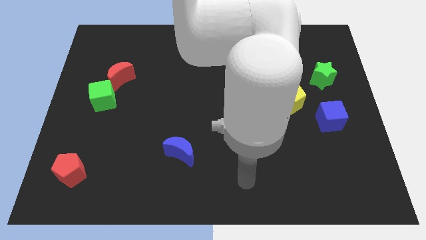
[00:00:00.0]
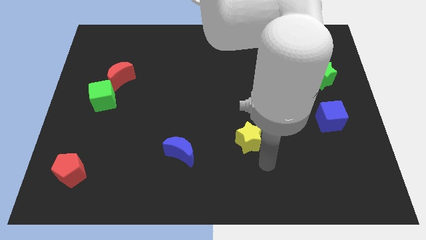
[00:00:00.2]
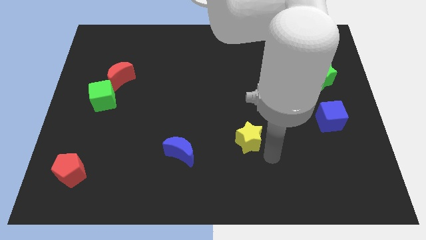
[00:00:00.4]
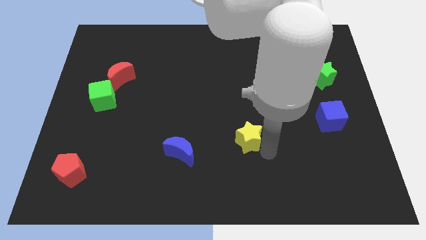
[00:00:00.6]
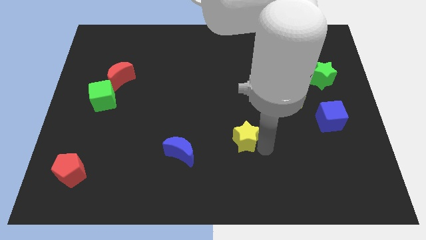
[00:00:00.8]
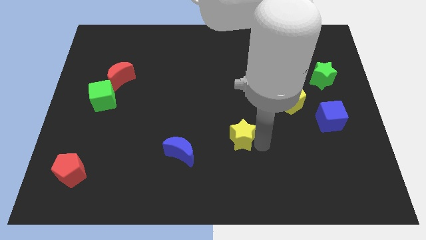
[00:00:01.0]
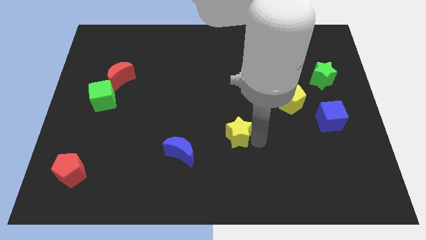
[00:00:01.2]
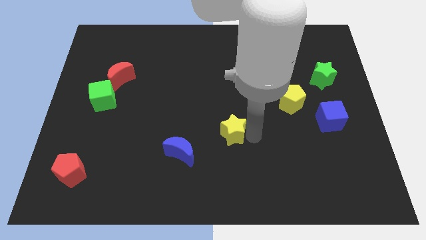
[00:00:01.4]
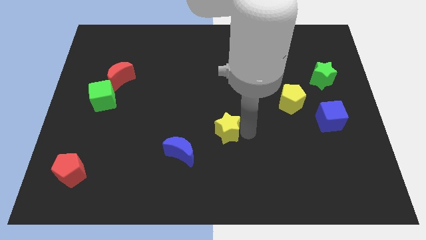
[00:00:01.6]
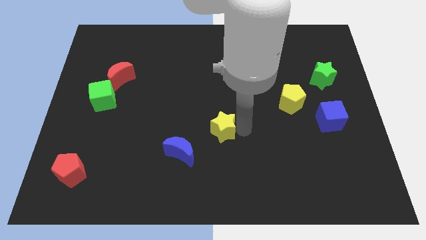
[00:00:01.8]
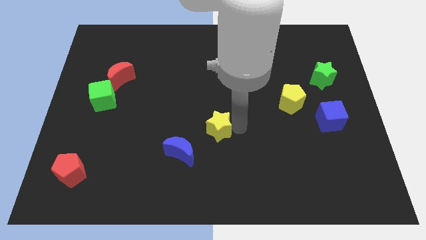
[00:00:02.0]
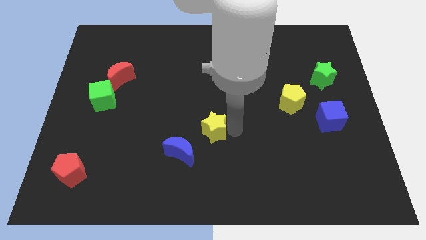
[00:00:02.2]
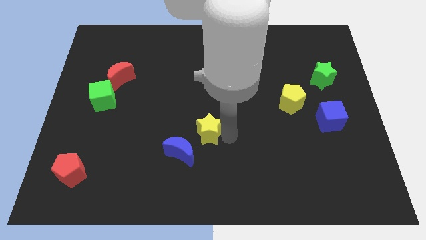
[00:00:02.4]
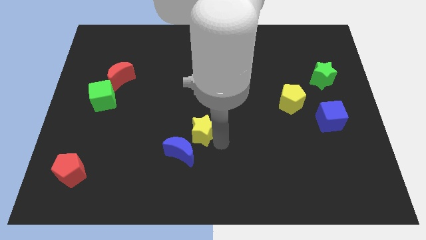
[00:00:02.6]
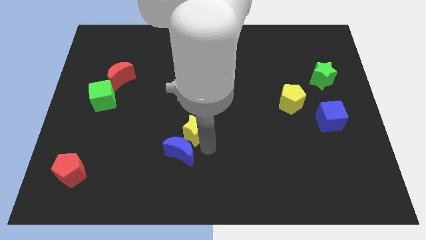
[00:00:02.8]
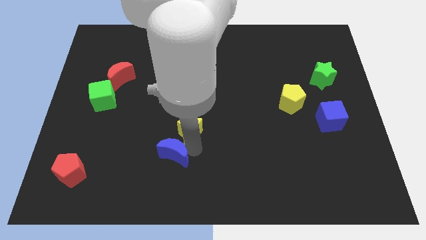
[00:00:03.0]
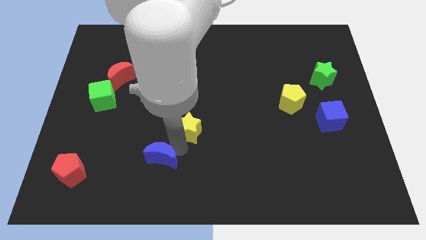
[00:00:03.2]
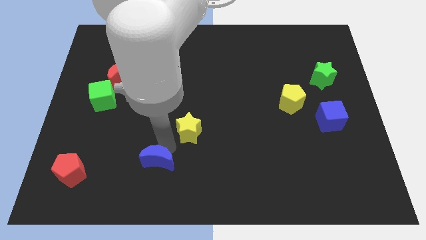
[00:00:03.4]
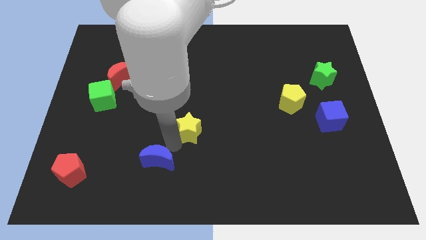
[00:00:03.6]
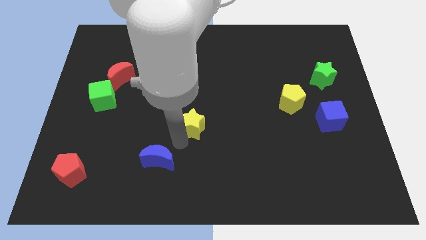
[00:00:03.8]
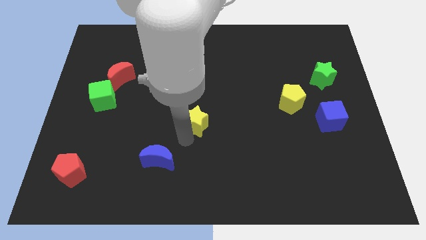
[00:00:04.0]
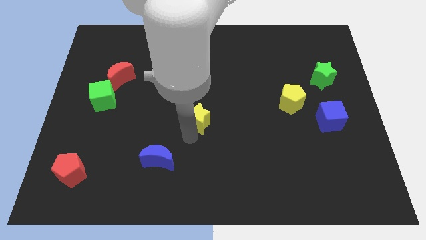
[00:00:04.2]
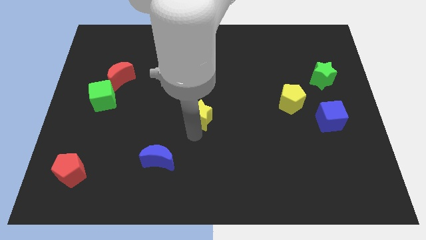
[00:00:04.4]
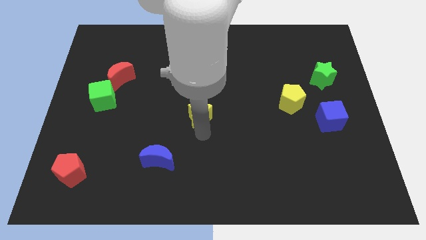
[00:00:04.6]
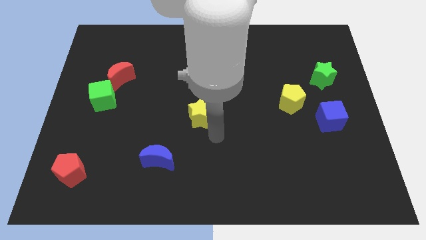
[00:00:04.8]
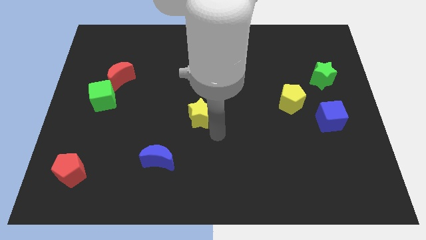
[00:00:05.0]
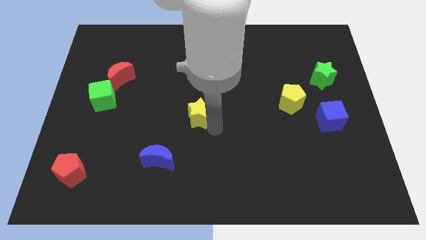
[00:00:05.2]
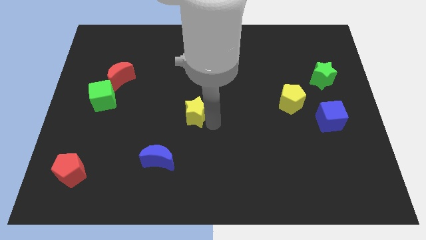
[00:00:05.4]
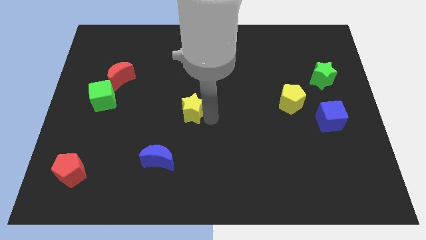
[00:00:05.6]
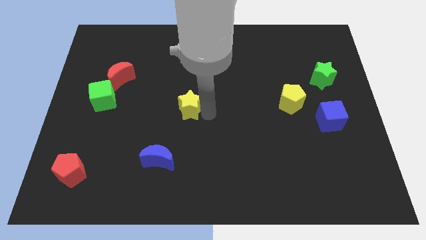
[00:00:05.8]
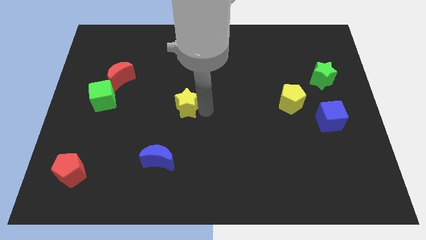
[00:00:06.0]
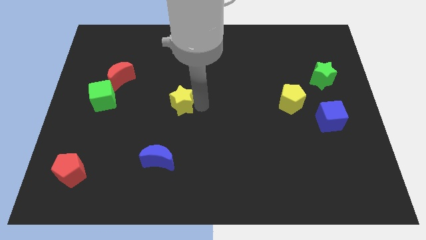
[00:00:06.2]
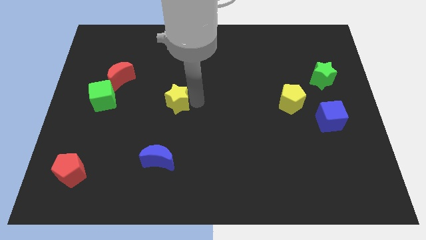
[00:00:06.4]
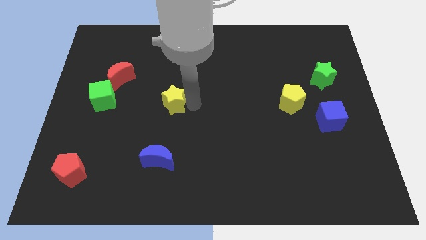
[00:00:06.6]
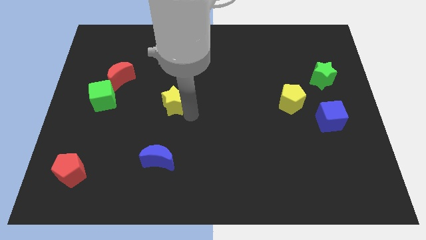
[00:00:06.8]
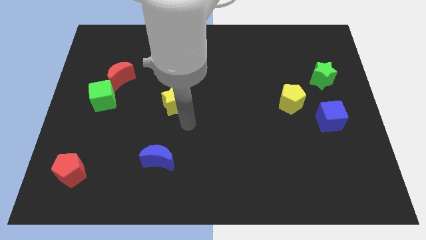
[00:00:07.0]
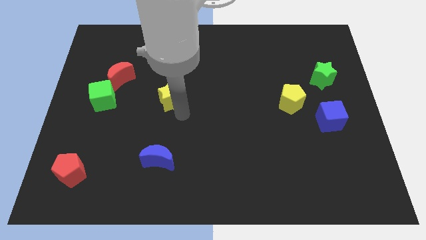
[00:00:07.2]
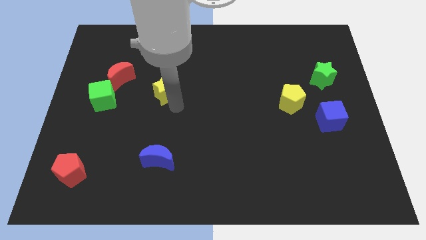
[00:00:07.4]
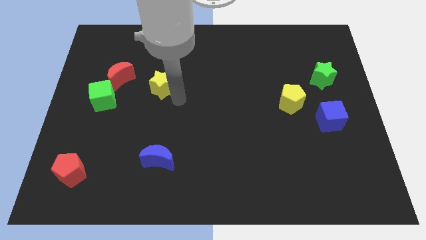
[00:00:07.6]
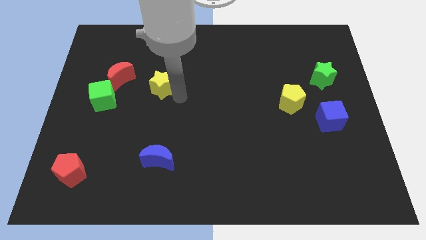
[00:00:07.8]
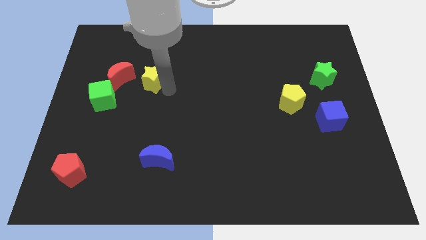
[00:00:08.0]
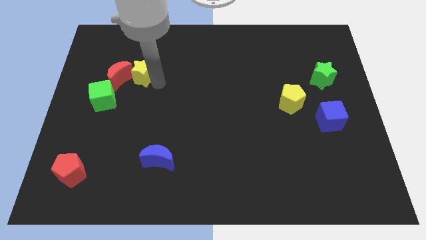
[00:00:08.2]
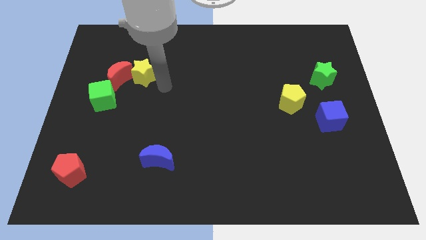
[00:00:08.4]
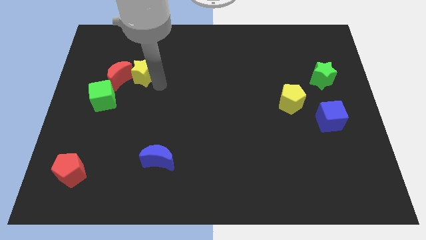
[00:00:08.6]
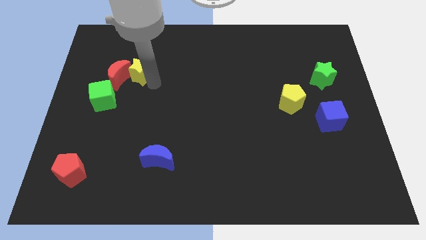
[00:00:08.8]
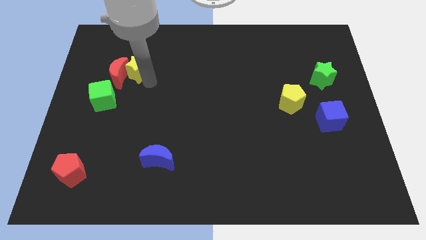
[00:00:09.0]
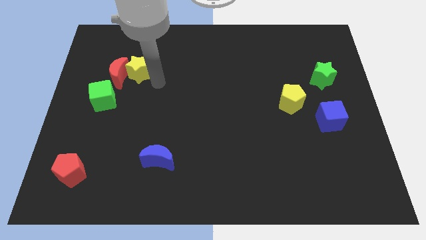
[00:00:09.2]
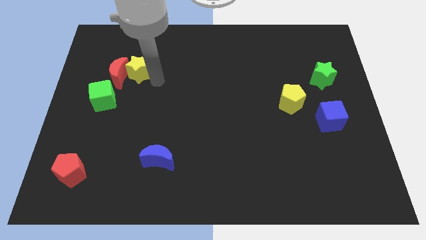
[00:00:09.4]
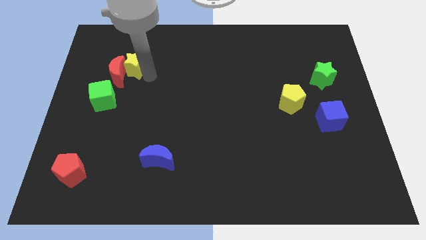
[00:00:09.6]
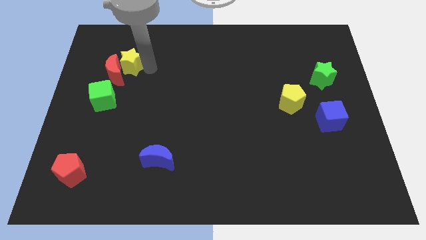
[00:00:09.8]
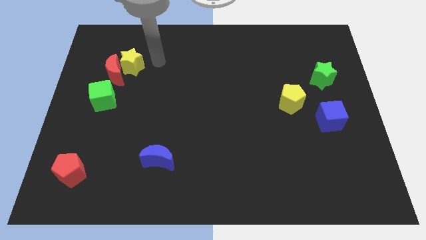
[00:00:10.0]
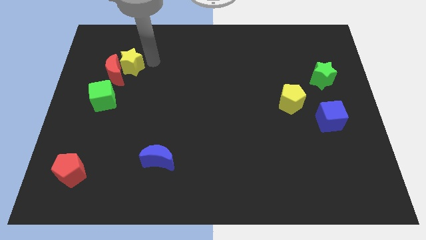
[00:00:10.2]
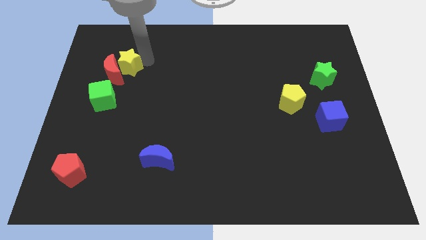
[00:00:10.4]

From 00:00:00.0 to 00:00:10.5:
move the yellow star above the green cube

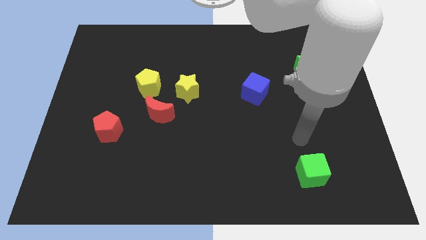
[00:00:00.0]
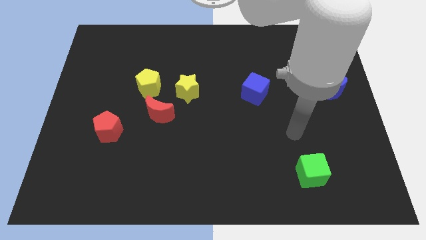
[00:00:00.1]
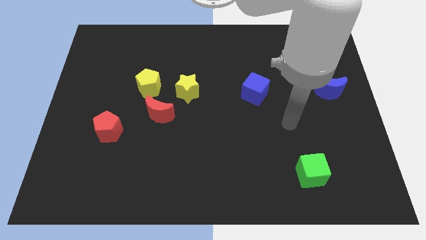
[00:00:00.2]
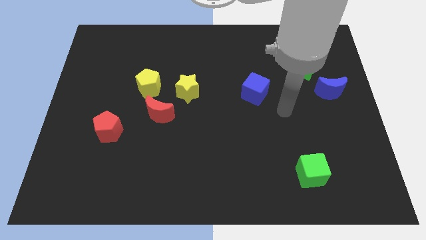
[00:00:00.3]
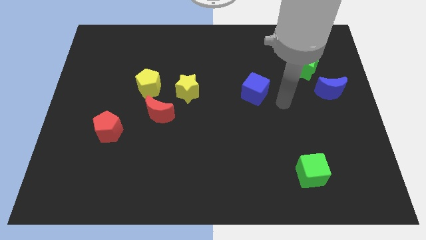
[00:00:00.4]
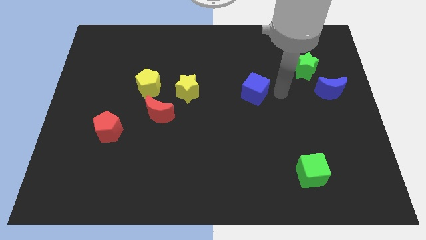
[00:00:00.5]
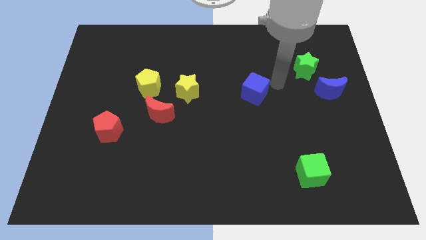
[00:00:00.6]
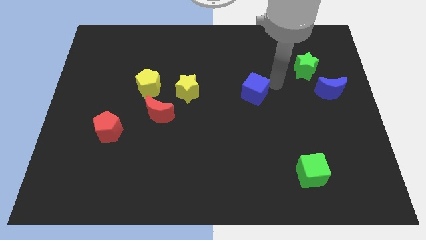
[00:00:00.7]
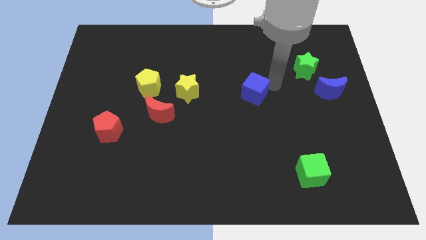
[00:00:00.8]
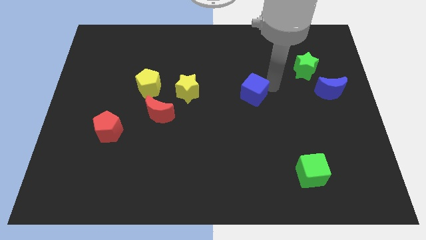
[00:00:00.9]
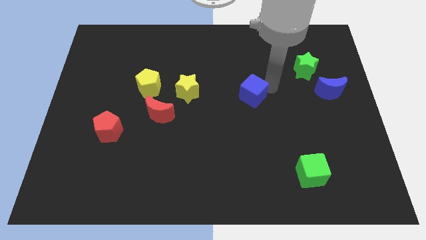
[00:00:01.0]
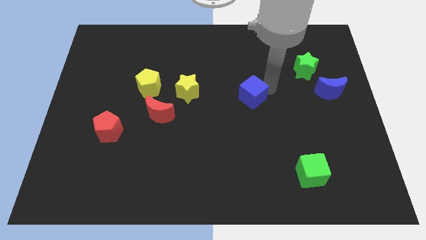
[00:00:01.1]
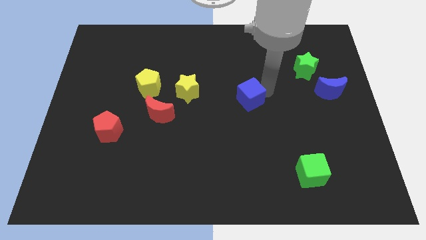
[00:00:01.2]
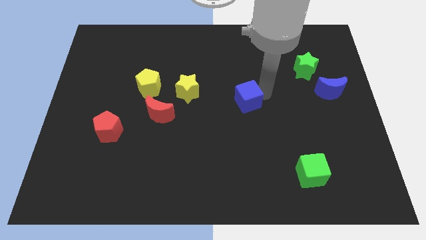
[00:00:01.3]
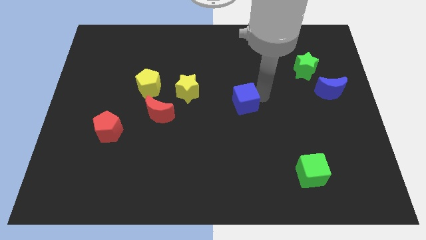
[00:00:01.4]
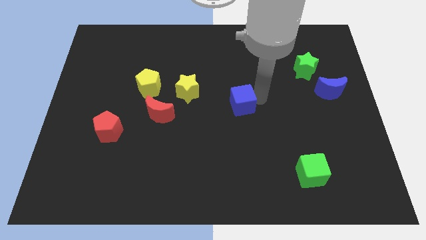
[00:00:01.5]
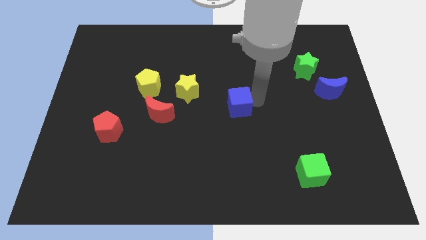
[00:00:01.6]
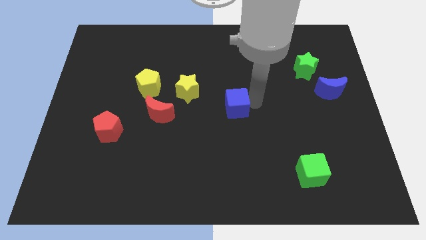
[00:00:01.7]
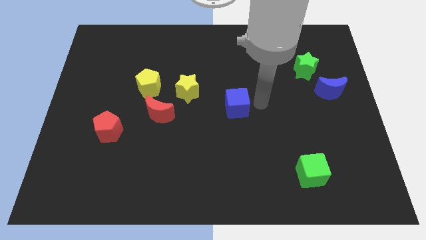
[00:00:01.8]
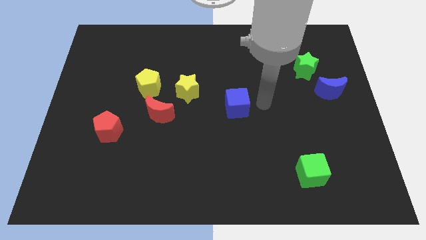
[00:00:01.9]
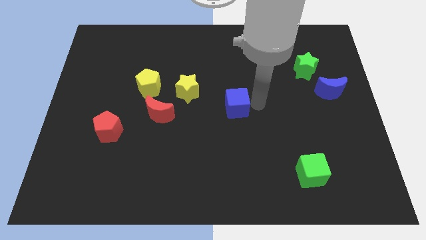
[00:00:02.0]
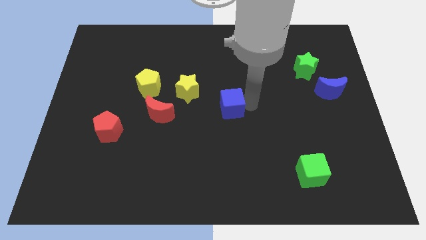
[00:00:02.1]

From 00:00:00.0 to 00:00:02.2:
slide the blue cube to the bottom right side of the yellow star
